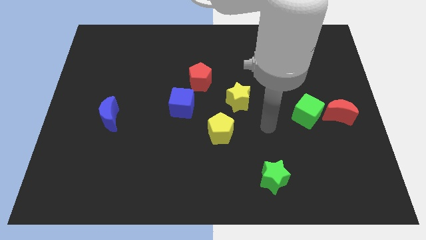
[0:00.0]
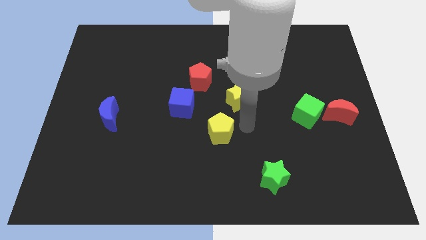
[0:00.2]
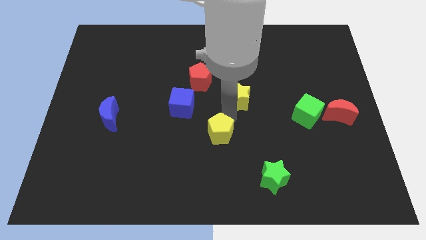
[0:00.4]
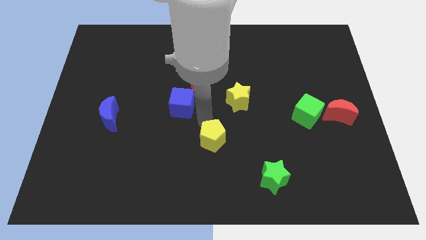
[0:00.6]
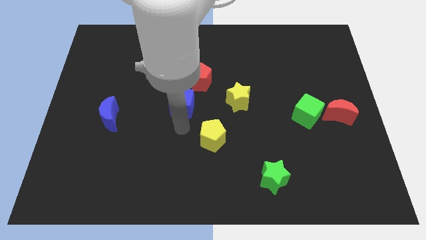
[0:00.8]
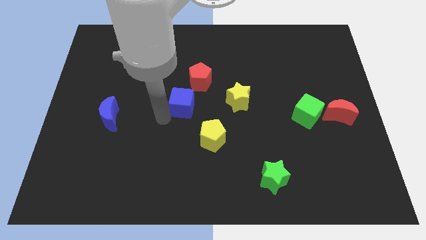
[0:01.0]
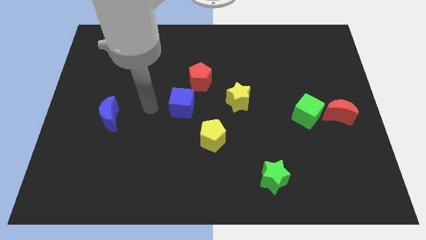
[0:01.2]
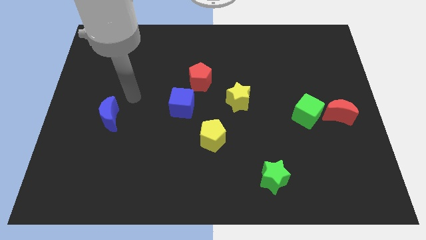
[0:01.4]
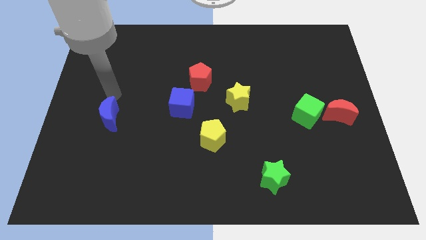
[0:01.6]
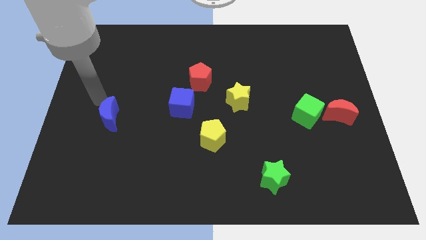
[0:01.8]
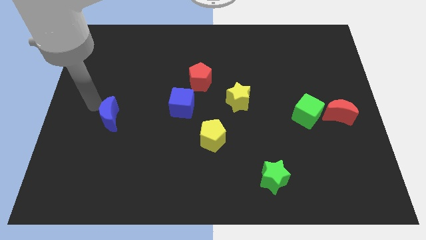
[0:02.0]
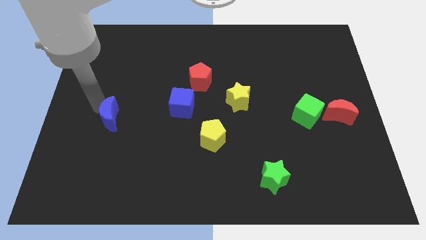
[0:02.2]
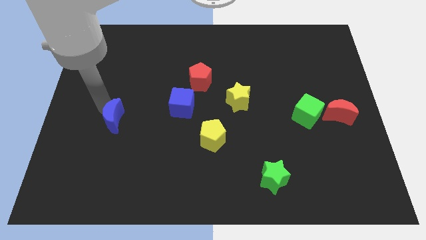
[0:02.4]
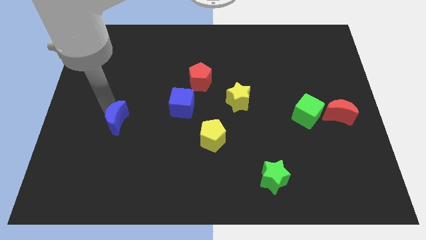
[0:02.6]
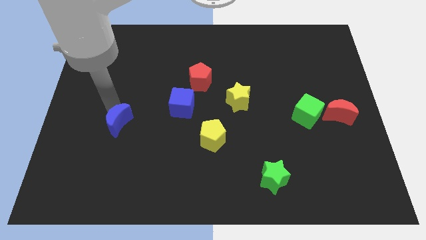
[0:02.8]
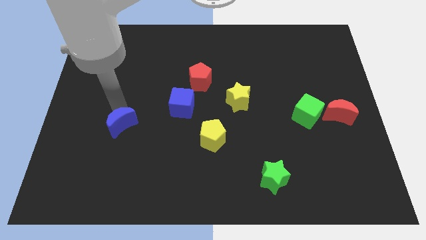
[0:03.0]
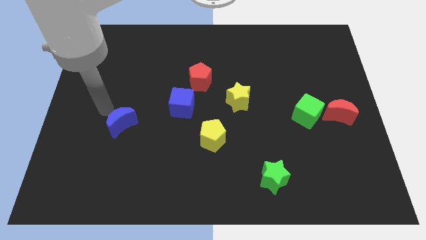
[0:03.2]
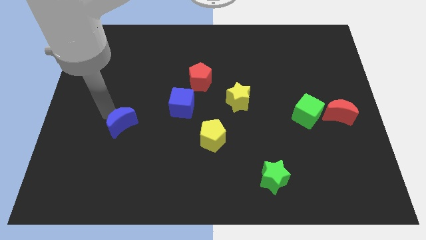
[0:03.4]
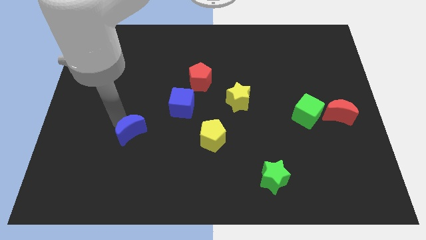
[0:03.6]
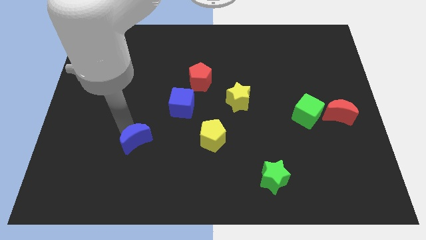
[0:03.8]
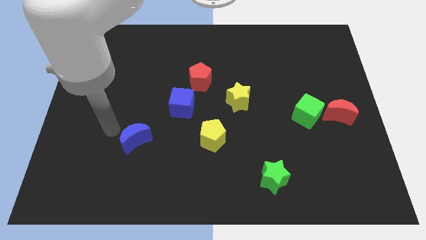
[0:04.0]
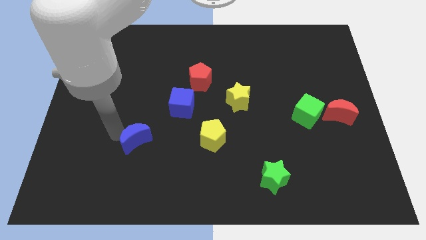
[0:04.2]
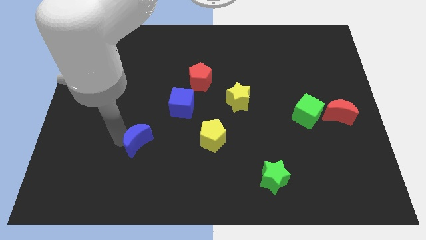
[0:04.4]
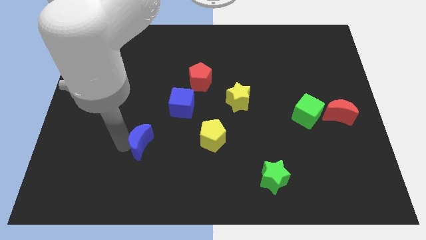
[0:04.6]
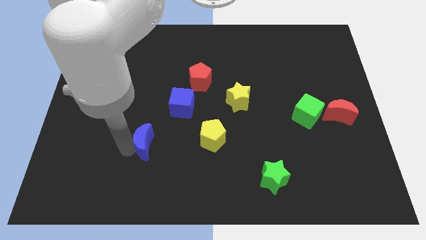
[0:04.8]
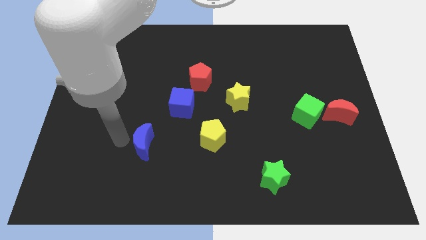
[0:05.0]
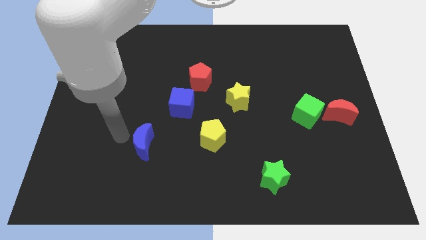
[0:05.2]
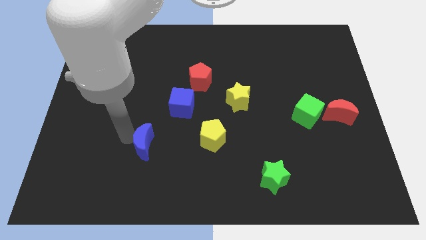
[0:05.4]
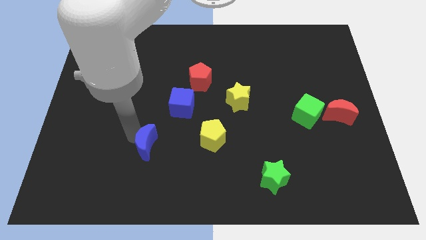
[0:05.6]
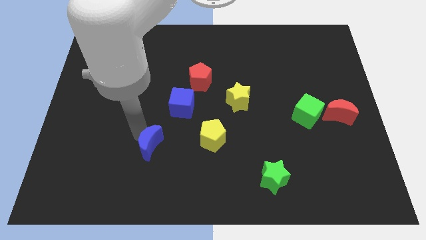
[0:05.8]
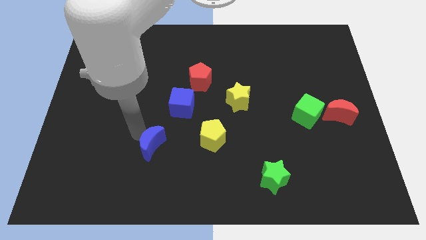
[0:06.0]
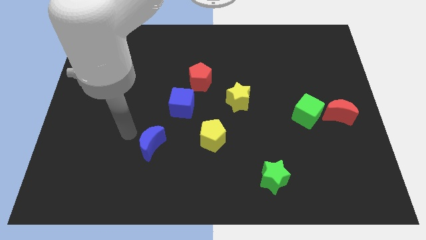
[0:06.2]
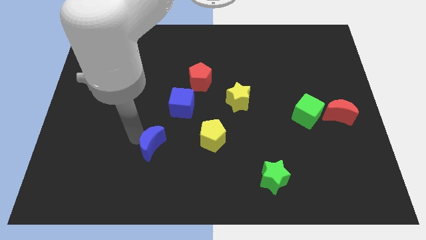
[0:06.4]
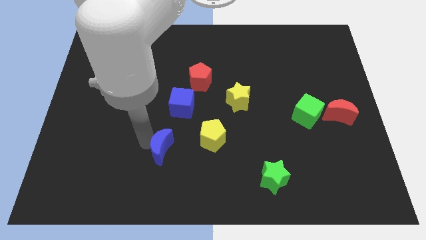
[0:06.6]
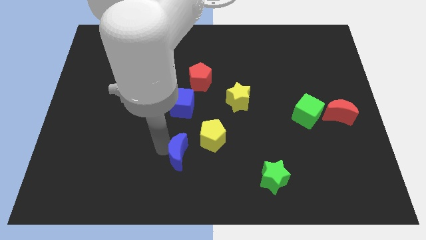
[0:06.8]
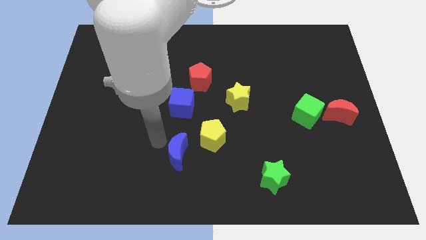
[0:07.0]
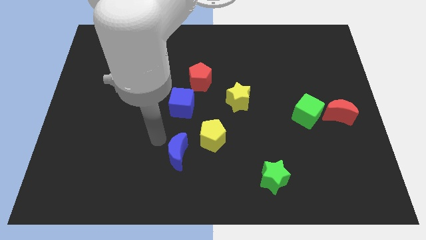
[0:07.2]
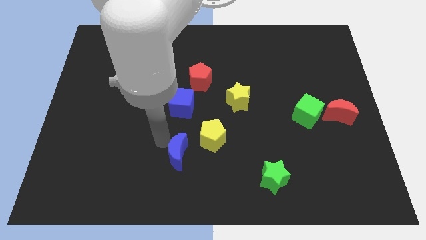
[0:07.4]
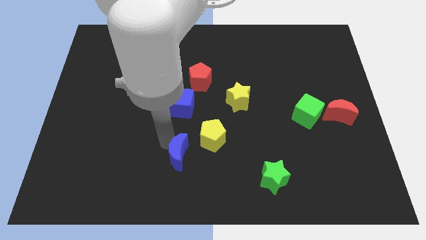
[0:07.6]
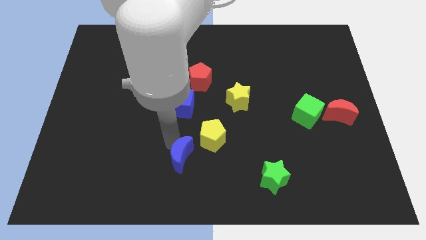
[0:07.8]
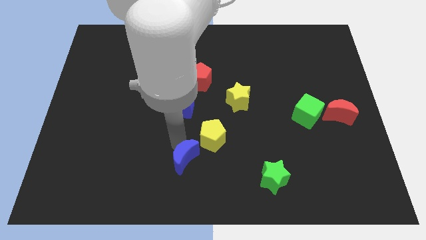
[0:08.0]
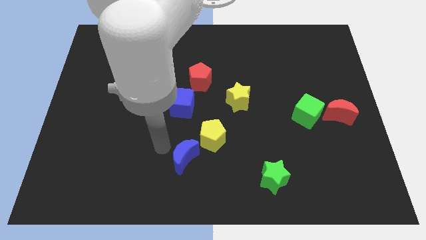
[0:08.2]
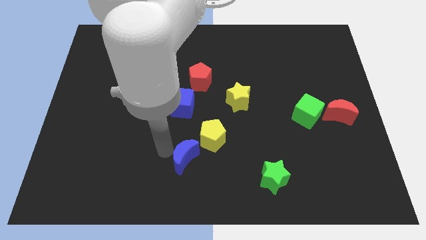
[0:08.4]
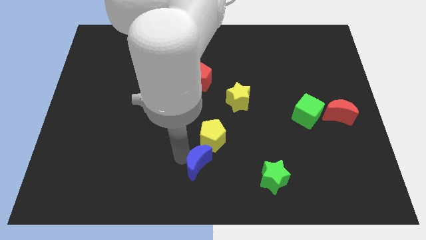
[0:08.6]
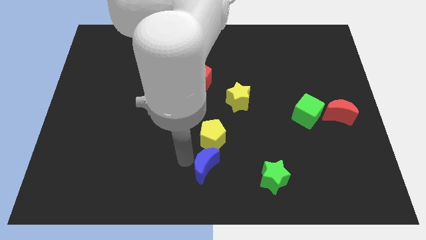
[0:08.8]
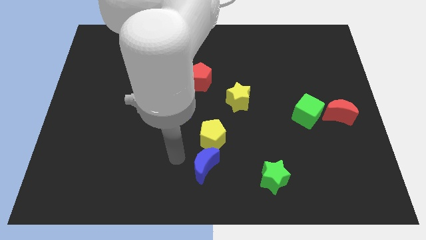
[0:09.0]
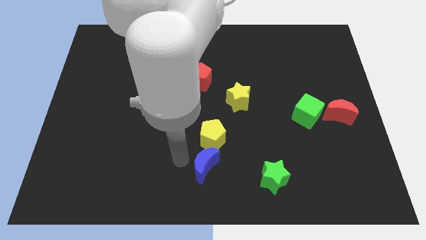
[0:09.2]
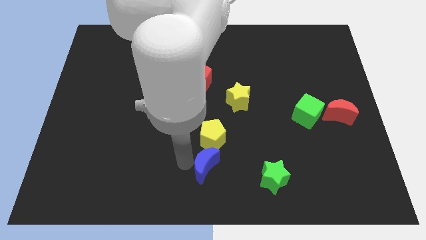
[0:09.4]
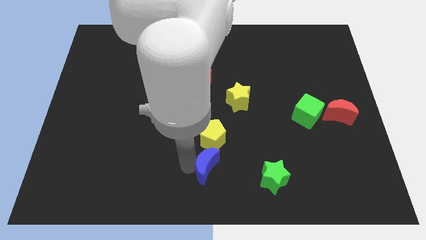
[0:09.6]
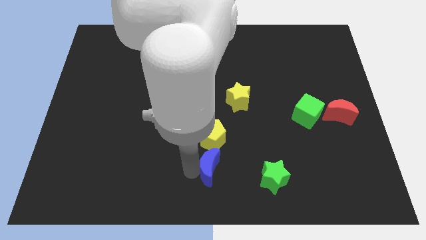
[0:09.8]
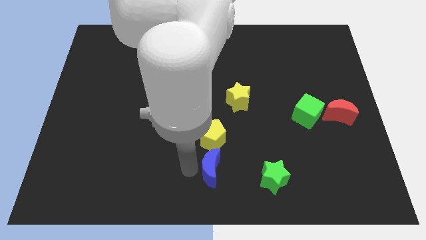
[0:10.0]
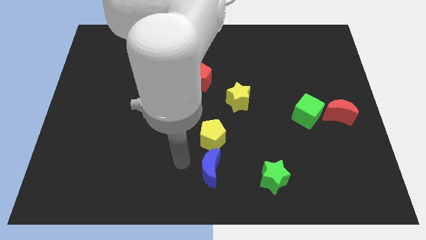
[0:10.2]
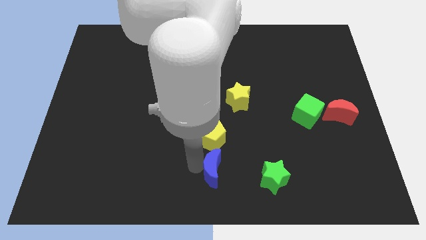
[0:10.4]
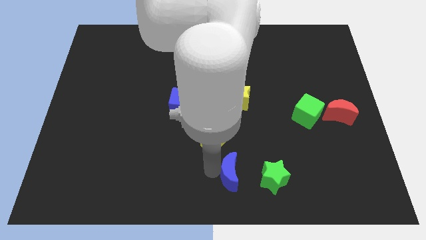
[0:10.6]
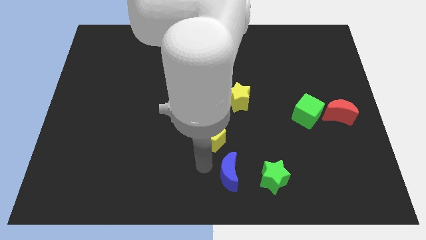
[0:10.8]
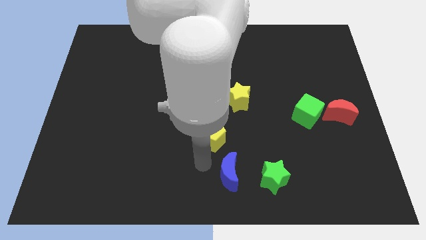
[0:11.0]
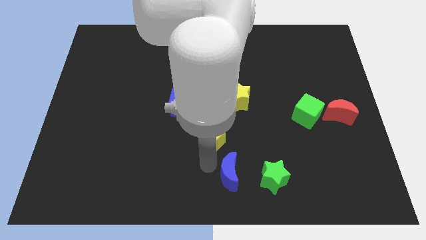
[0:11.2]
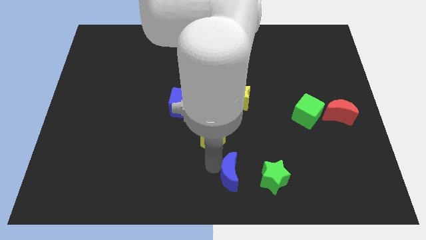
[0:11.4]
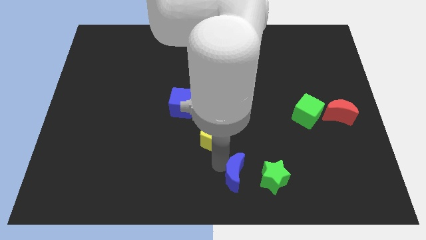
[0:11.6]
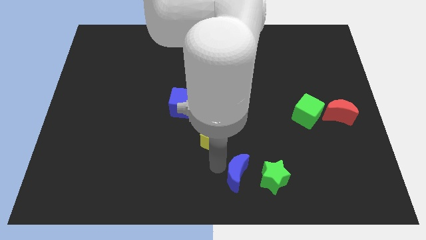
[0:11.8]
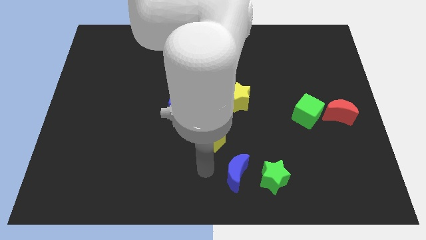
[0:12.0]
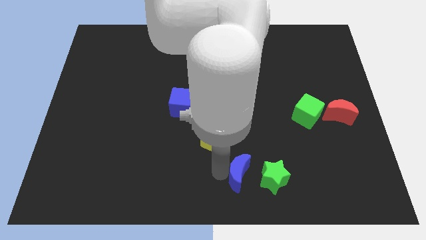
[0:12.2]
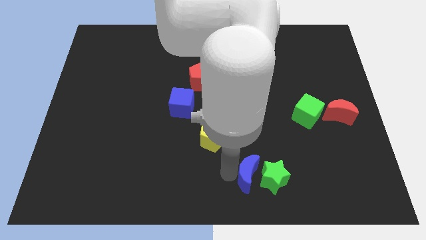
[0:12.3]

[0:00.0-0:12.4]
push the blue moon next to the green star

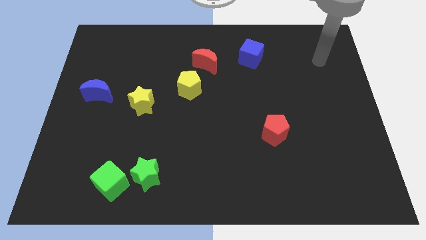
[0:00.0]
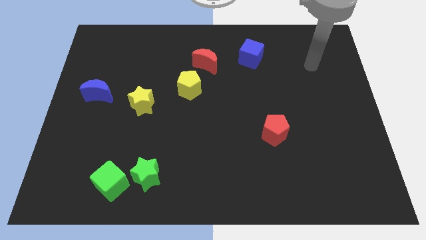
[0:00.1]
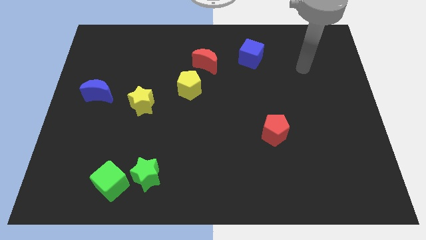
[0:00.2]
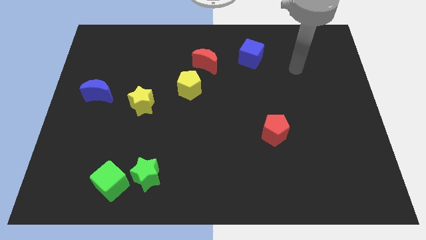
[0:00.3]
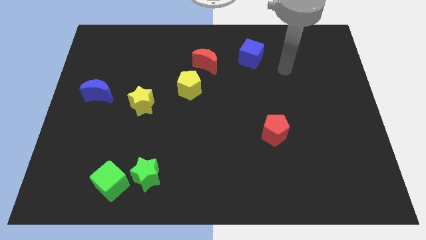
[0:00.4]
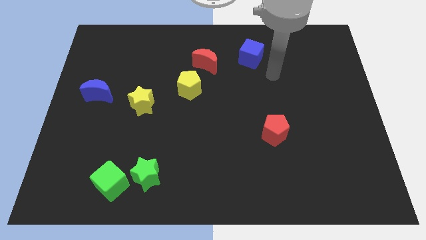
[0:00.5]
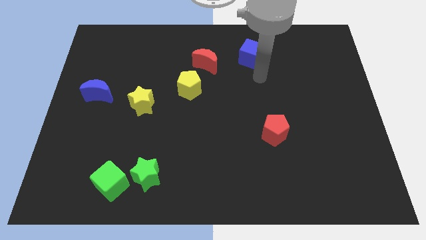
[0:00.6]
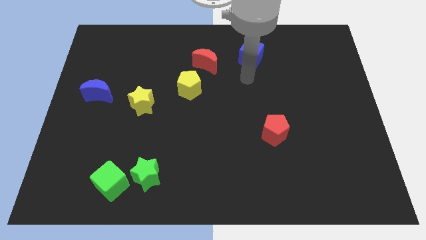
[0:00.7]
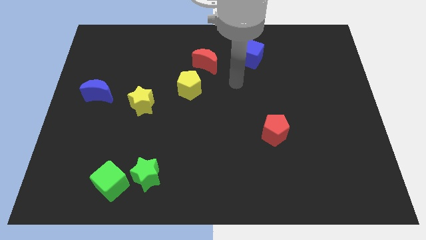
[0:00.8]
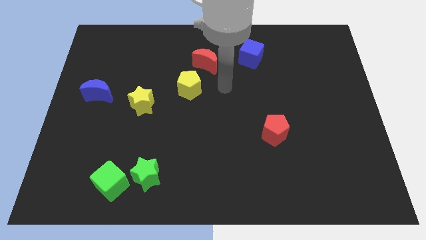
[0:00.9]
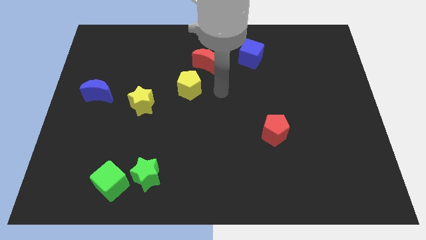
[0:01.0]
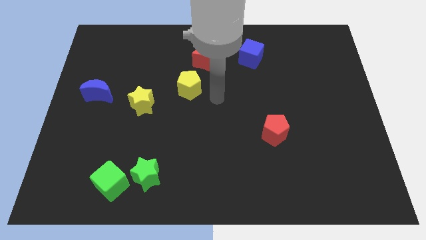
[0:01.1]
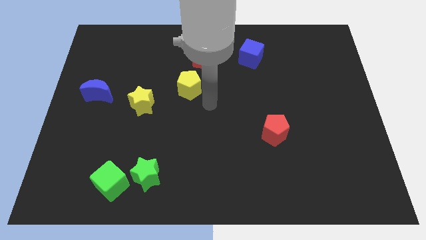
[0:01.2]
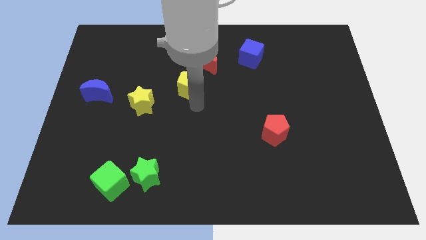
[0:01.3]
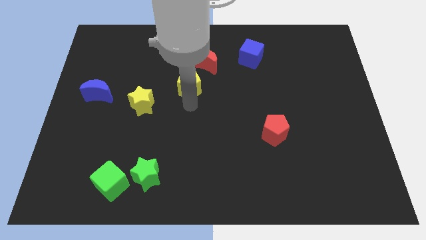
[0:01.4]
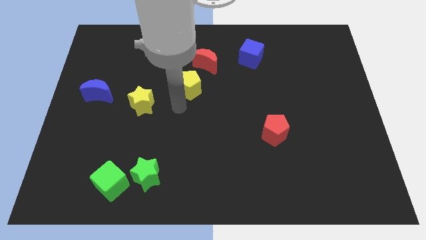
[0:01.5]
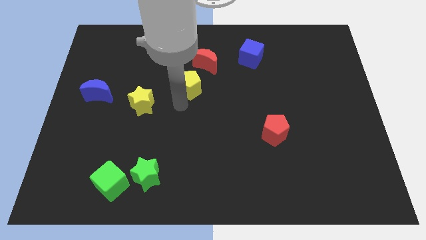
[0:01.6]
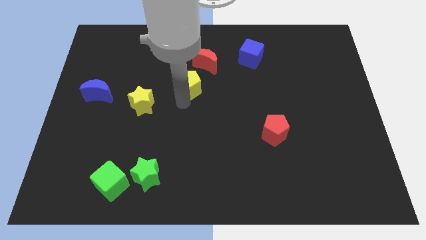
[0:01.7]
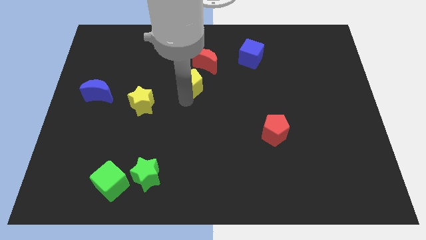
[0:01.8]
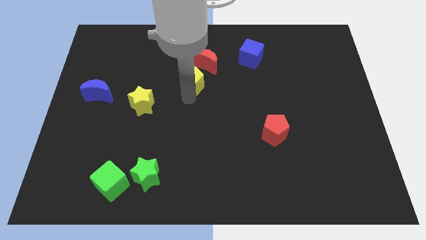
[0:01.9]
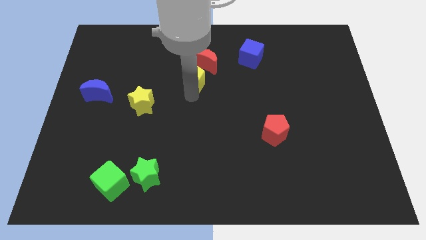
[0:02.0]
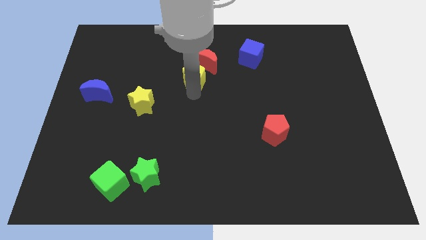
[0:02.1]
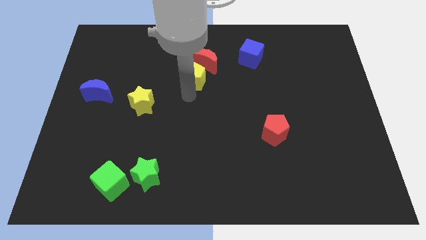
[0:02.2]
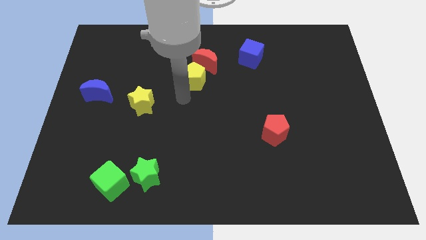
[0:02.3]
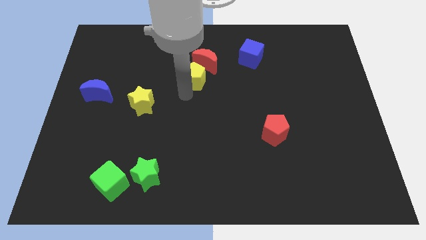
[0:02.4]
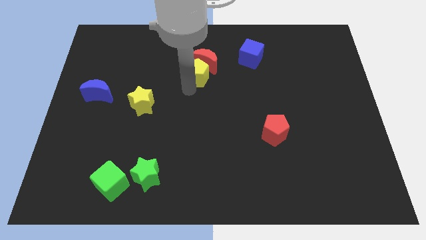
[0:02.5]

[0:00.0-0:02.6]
move the yellow pentagon close to the red moon
